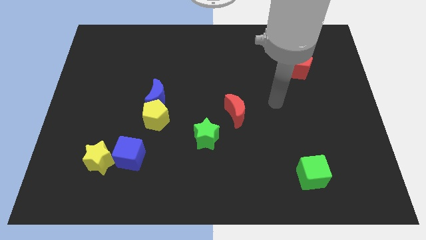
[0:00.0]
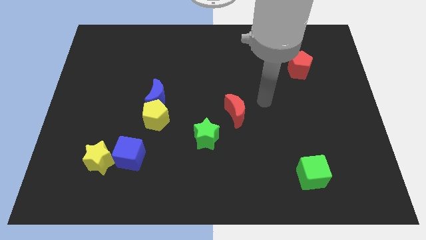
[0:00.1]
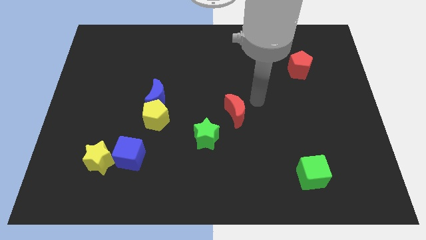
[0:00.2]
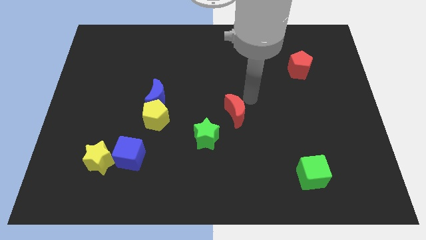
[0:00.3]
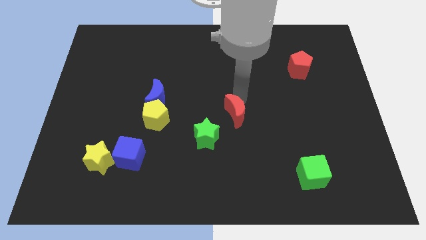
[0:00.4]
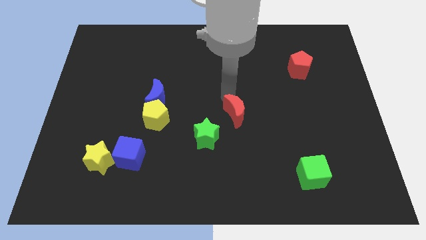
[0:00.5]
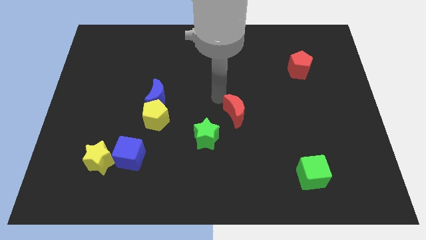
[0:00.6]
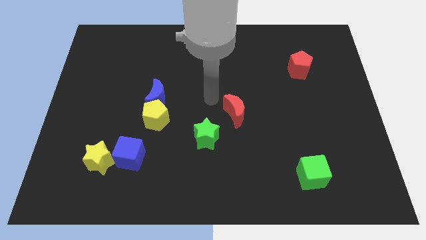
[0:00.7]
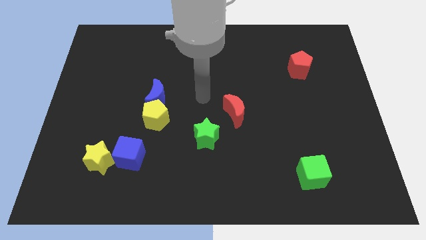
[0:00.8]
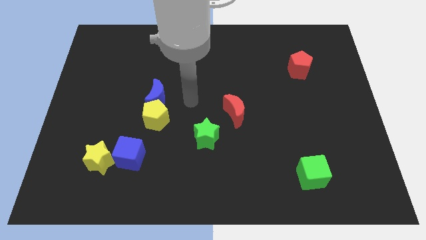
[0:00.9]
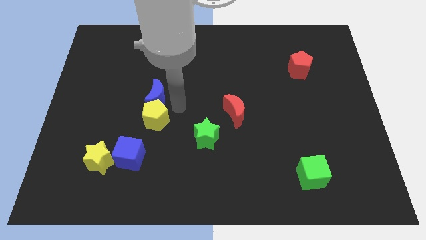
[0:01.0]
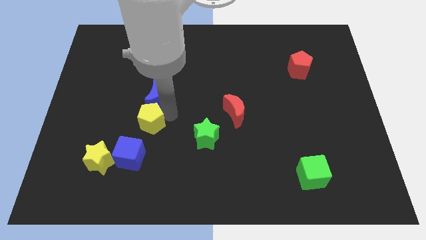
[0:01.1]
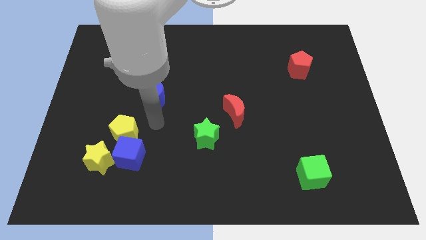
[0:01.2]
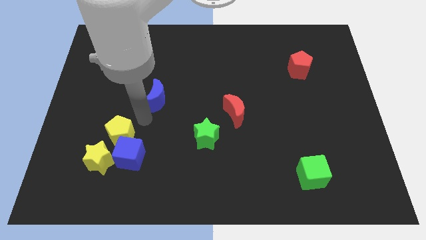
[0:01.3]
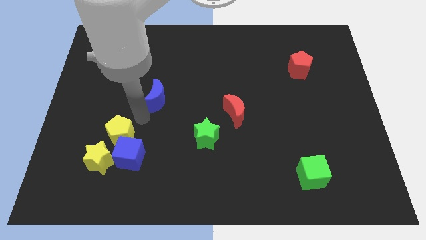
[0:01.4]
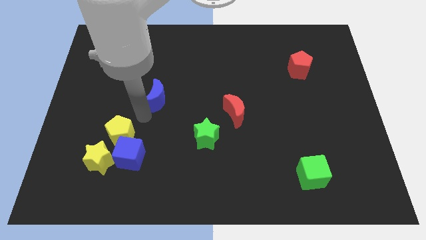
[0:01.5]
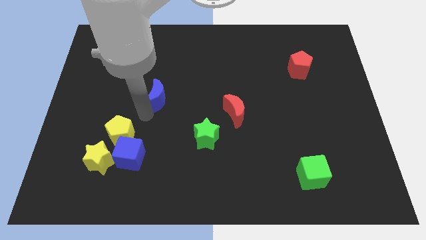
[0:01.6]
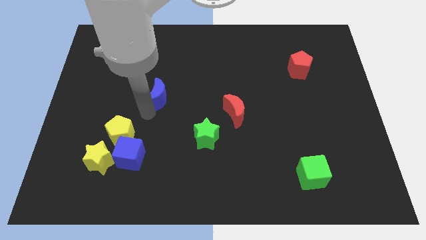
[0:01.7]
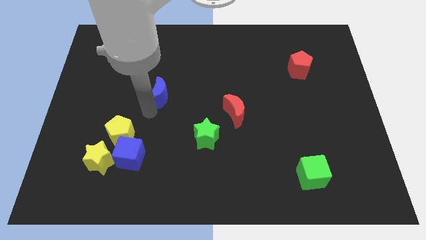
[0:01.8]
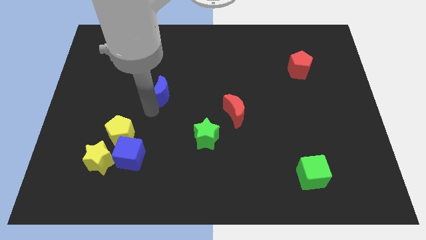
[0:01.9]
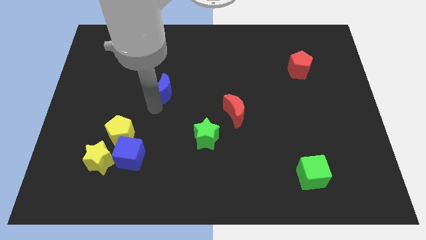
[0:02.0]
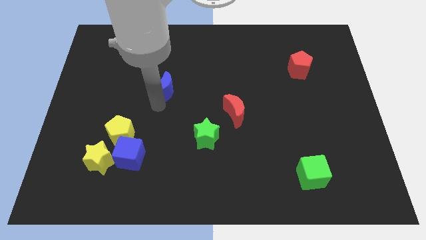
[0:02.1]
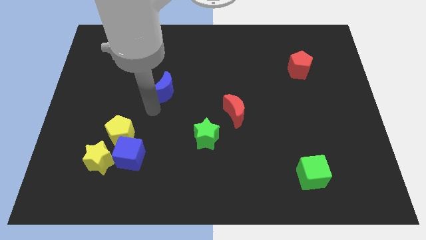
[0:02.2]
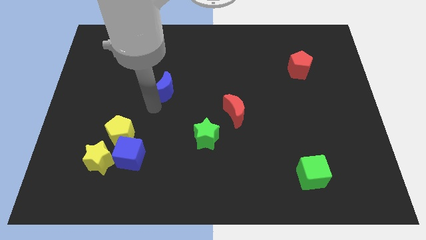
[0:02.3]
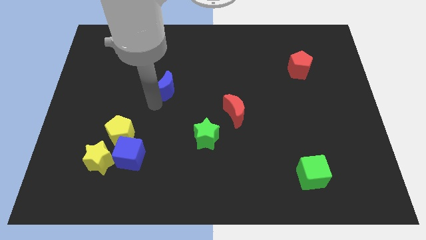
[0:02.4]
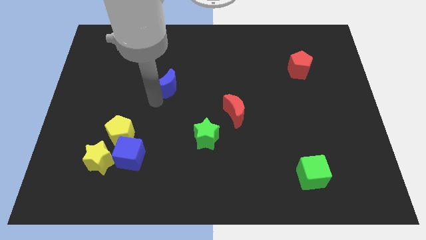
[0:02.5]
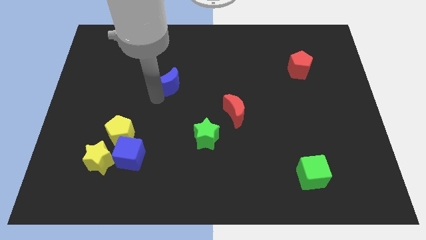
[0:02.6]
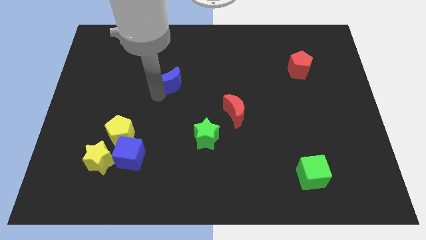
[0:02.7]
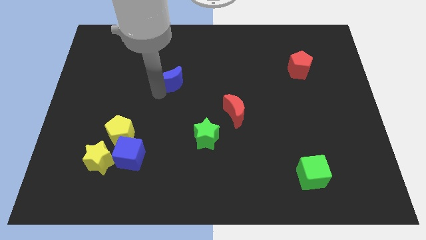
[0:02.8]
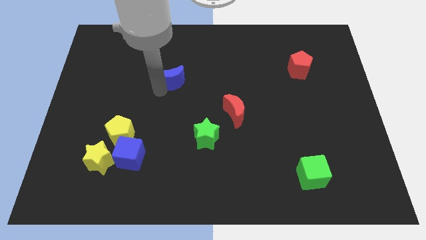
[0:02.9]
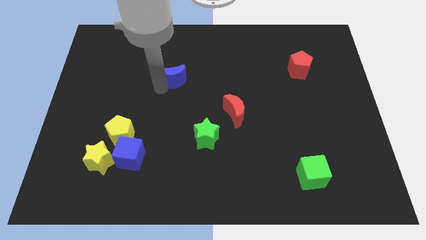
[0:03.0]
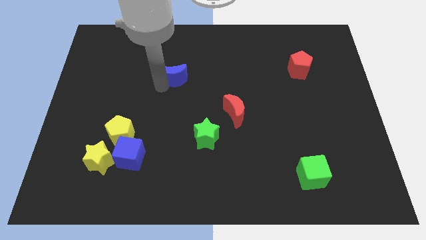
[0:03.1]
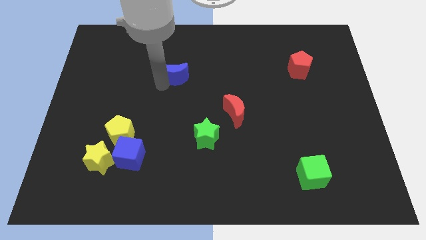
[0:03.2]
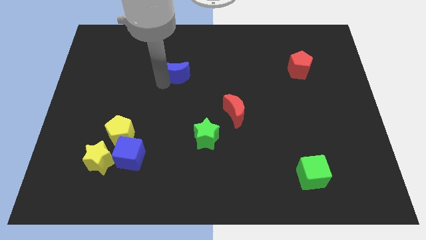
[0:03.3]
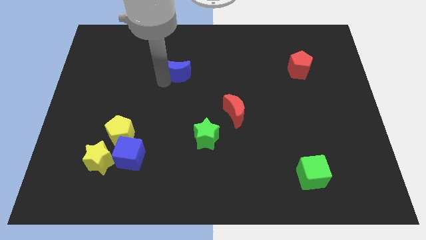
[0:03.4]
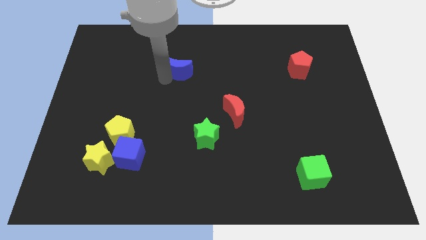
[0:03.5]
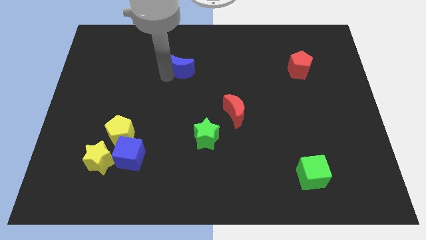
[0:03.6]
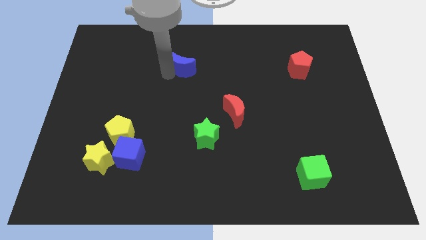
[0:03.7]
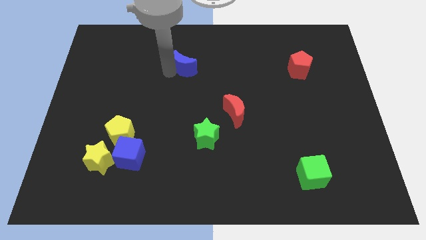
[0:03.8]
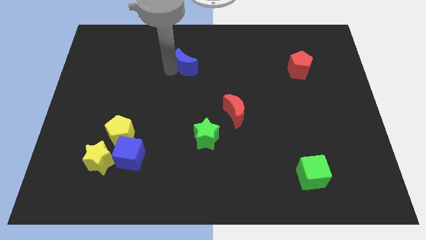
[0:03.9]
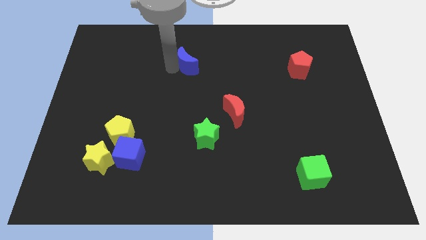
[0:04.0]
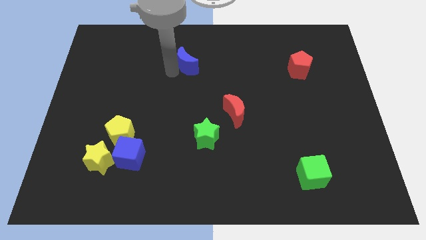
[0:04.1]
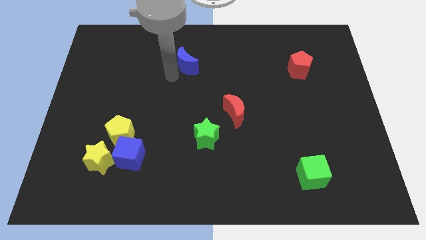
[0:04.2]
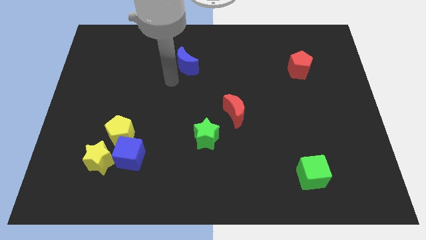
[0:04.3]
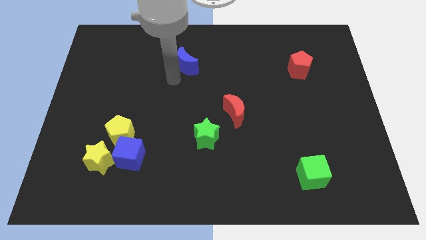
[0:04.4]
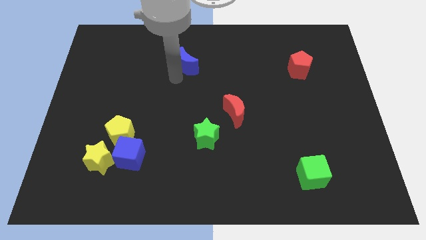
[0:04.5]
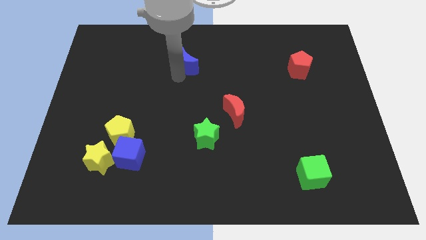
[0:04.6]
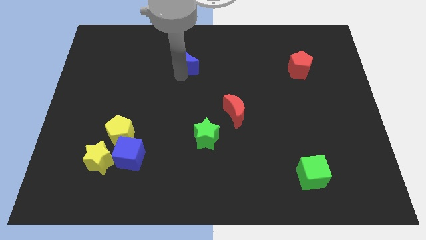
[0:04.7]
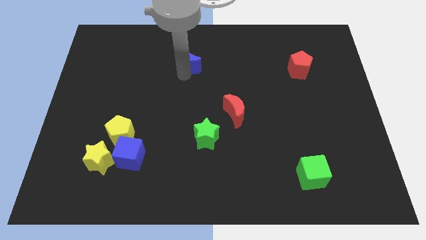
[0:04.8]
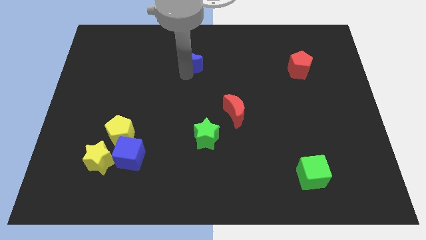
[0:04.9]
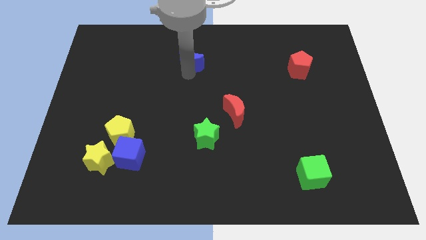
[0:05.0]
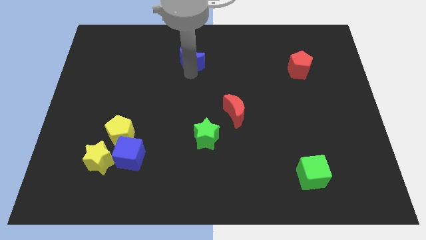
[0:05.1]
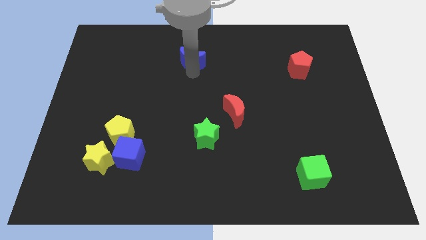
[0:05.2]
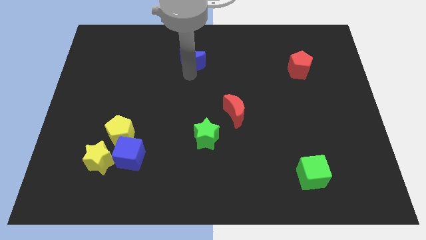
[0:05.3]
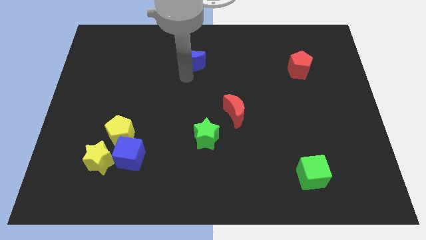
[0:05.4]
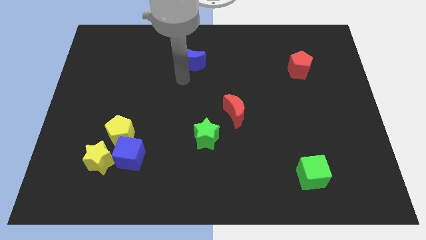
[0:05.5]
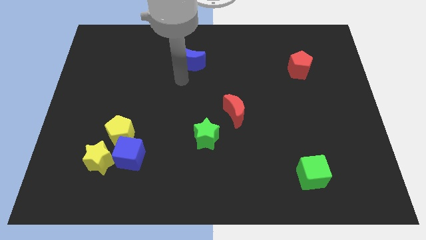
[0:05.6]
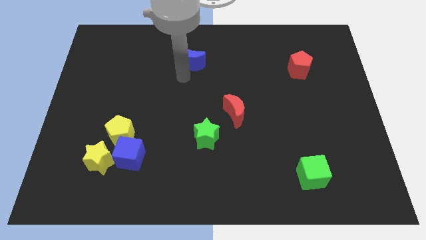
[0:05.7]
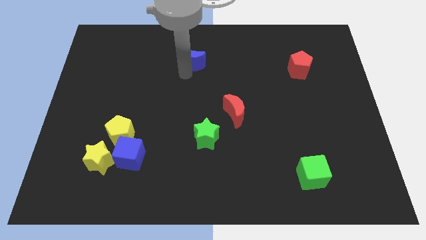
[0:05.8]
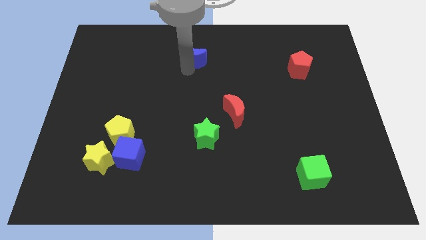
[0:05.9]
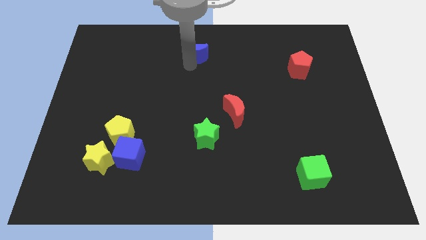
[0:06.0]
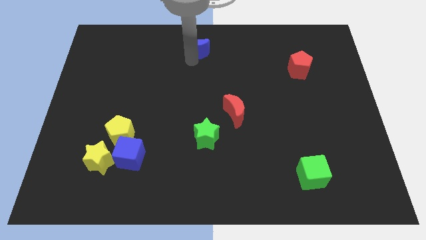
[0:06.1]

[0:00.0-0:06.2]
slide the blue moon to the towards your base

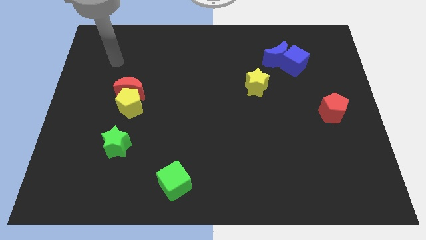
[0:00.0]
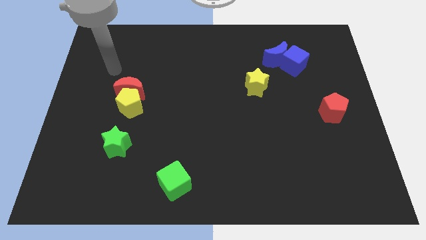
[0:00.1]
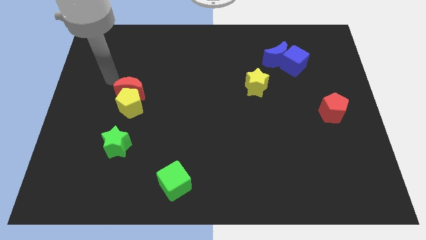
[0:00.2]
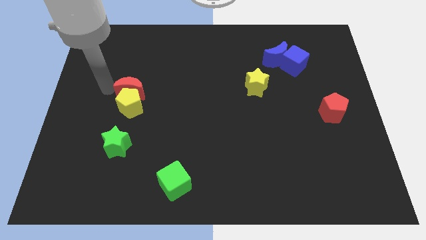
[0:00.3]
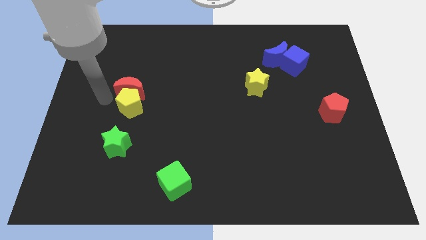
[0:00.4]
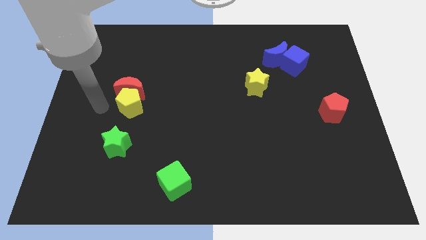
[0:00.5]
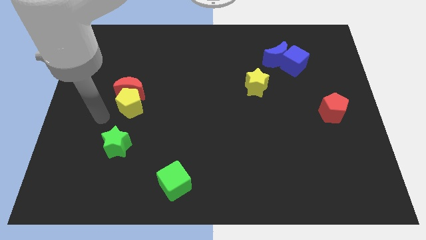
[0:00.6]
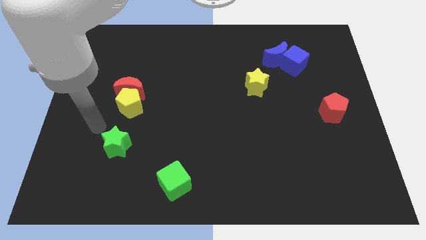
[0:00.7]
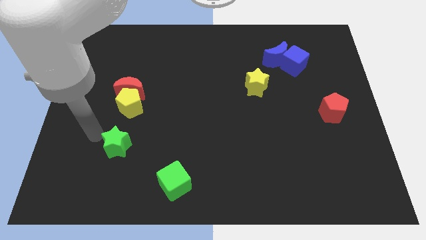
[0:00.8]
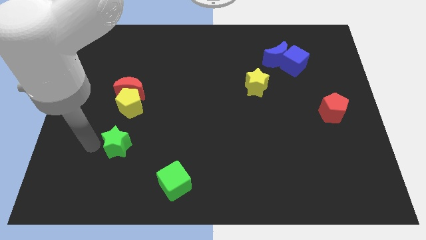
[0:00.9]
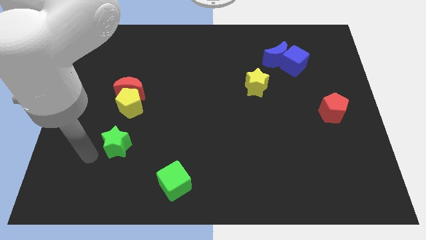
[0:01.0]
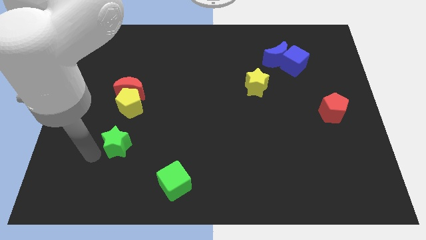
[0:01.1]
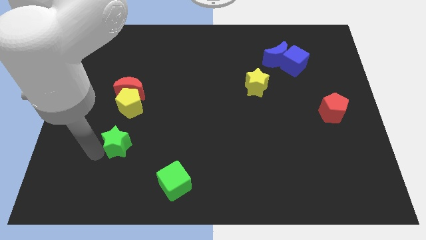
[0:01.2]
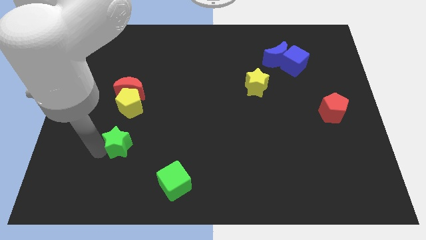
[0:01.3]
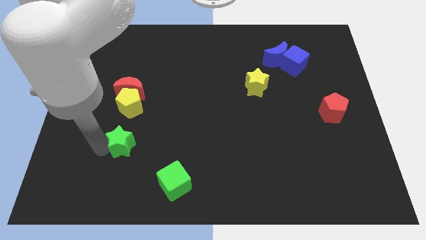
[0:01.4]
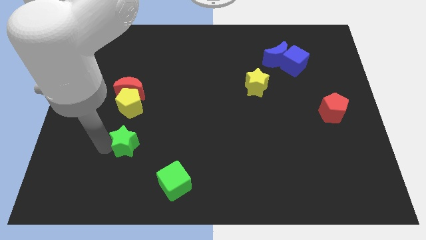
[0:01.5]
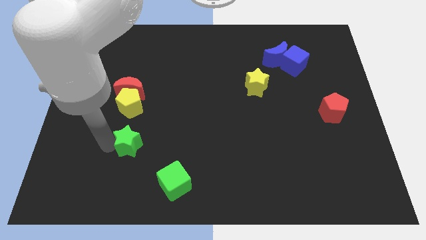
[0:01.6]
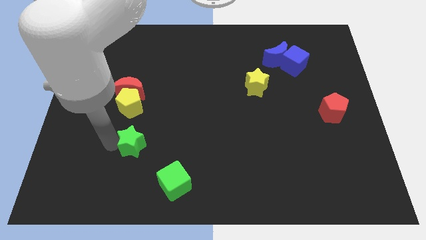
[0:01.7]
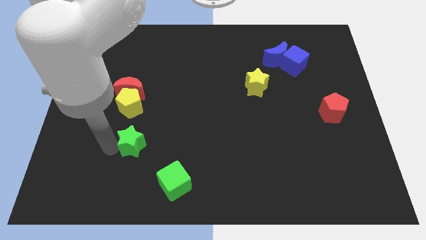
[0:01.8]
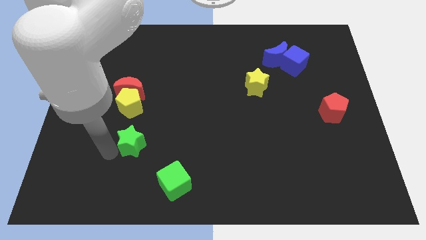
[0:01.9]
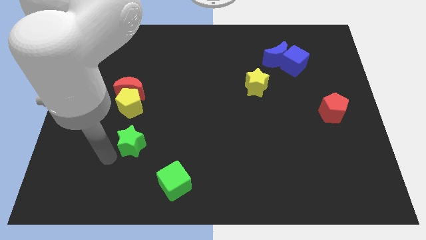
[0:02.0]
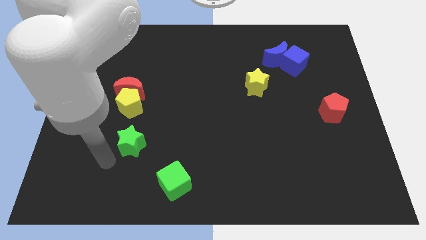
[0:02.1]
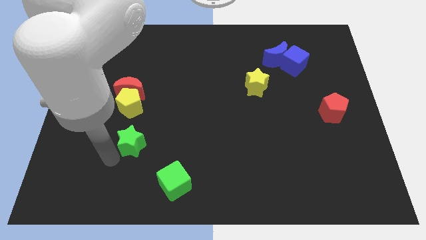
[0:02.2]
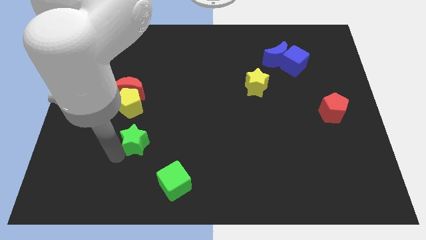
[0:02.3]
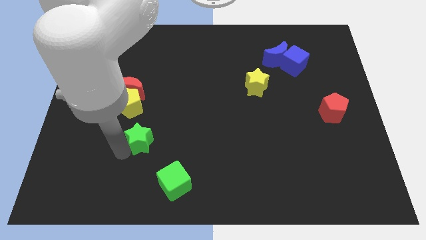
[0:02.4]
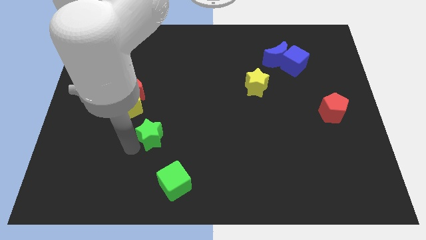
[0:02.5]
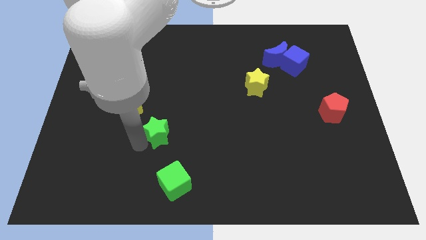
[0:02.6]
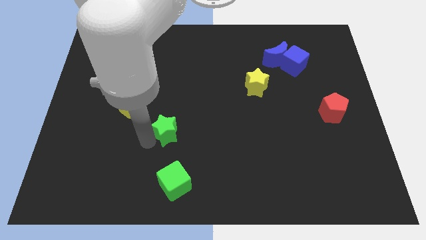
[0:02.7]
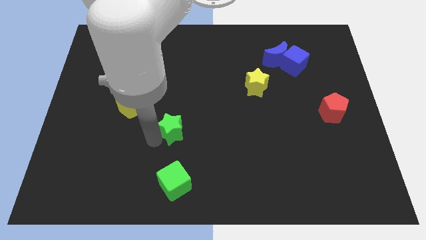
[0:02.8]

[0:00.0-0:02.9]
slide the green star to the center of the board
